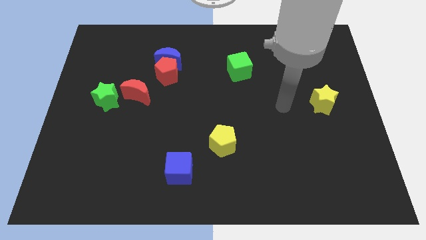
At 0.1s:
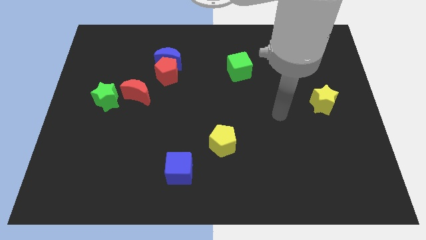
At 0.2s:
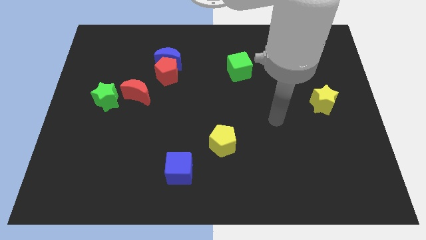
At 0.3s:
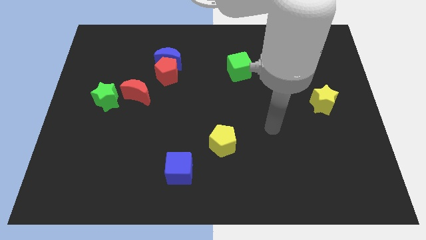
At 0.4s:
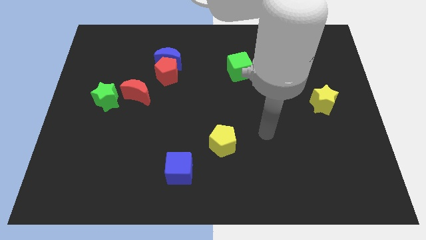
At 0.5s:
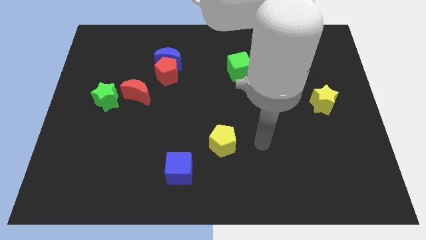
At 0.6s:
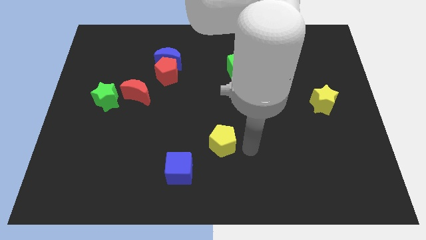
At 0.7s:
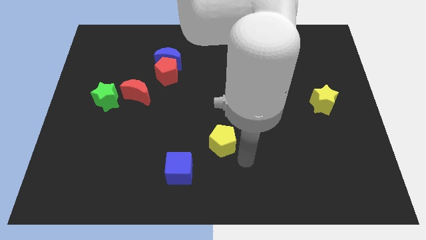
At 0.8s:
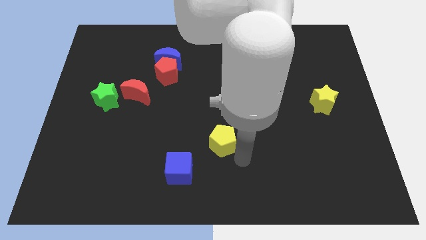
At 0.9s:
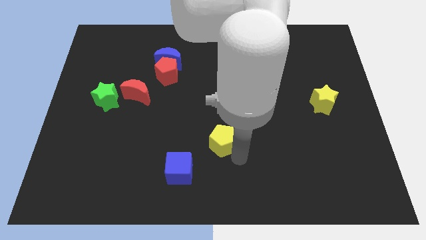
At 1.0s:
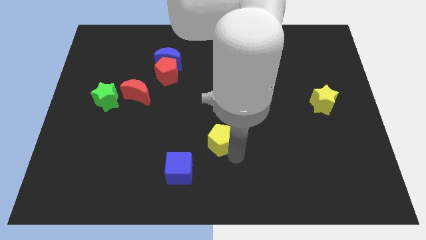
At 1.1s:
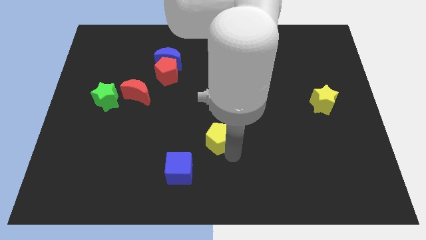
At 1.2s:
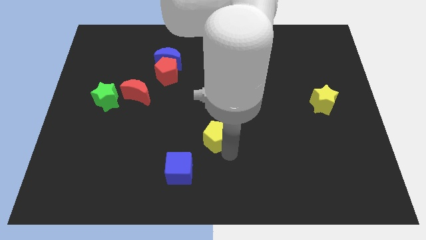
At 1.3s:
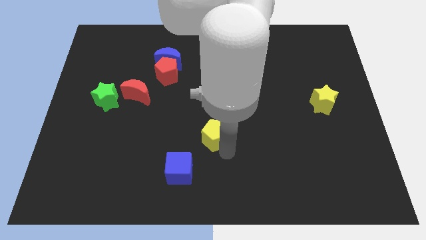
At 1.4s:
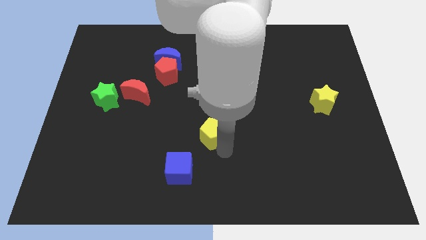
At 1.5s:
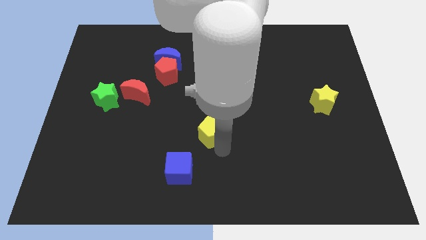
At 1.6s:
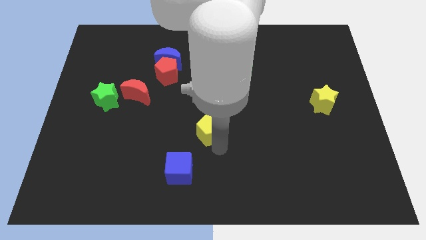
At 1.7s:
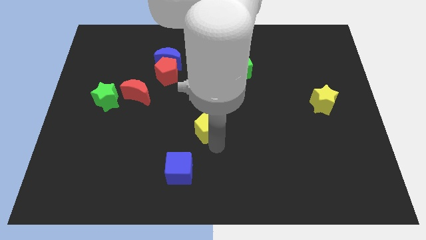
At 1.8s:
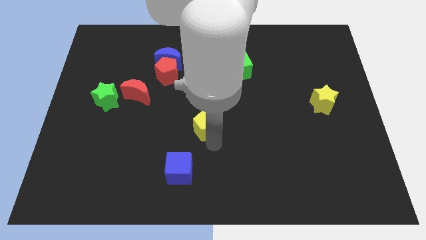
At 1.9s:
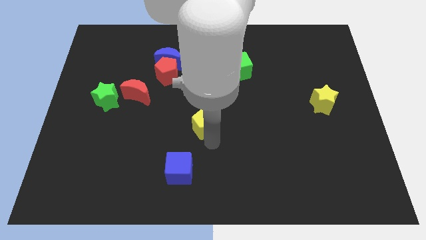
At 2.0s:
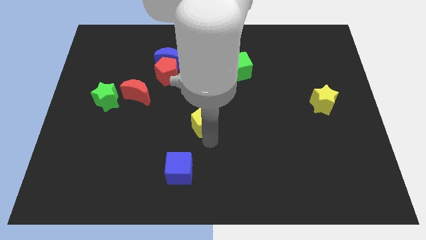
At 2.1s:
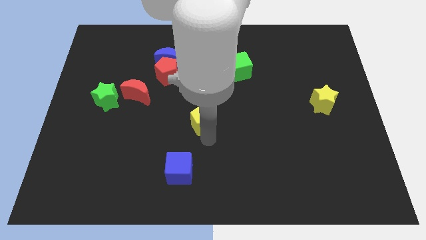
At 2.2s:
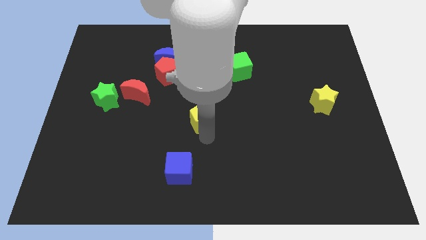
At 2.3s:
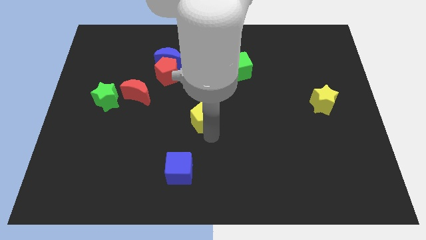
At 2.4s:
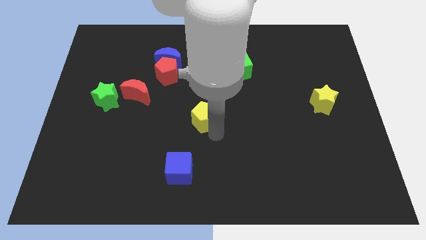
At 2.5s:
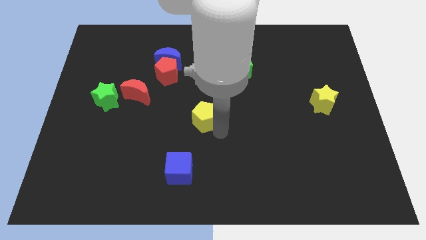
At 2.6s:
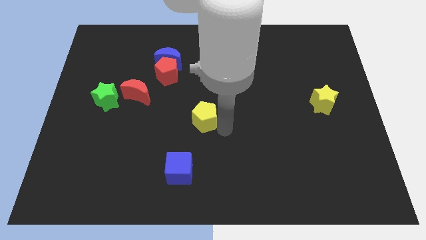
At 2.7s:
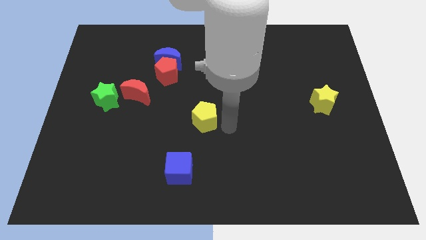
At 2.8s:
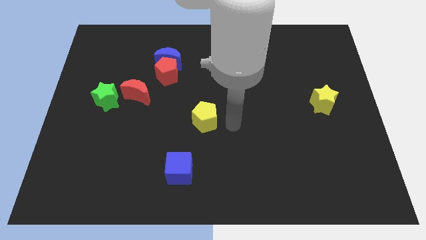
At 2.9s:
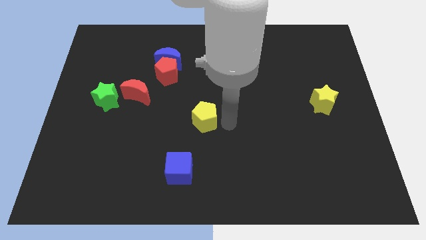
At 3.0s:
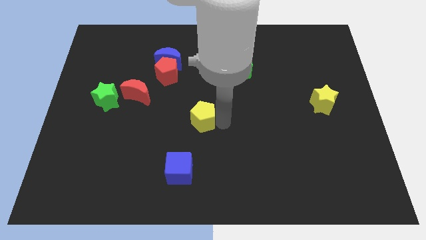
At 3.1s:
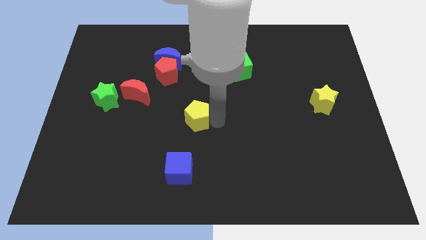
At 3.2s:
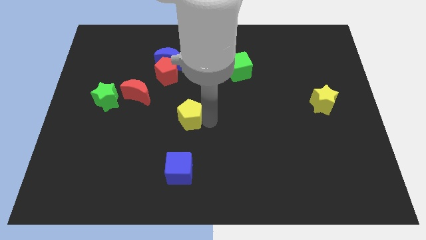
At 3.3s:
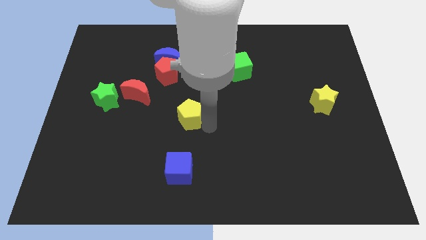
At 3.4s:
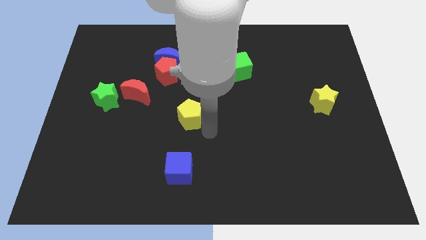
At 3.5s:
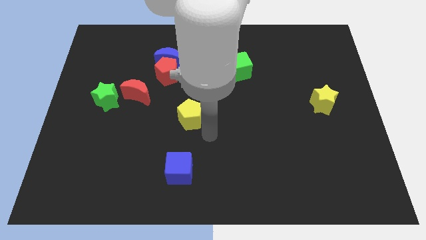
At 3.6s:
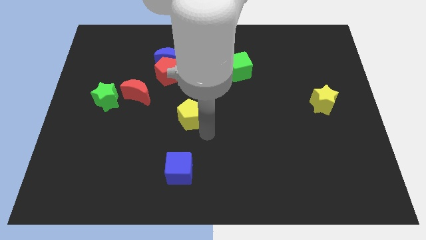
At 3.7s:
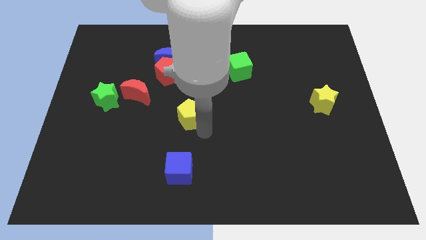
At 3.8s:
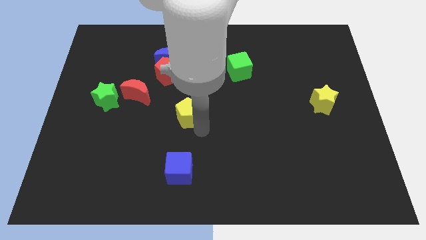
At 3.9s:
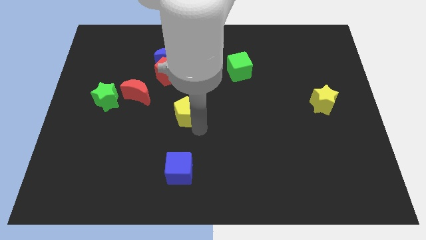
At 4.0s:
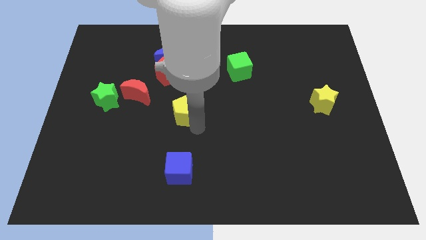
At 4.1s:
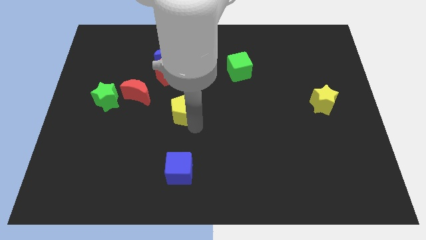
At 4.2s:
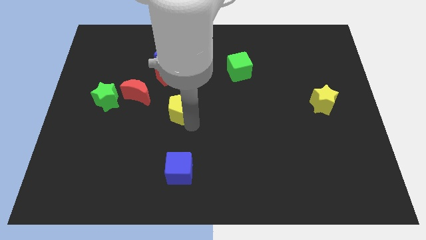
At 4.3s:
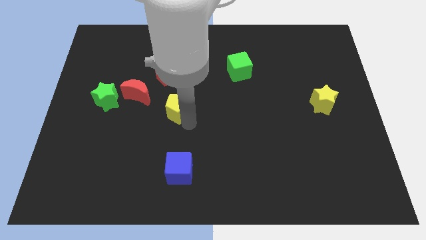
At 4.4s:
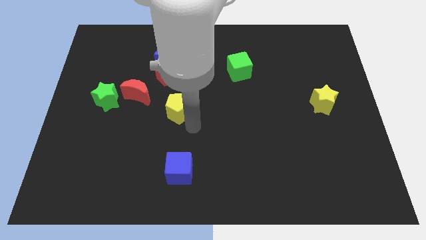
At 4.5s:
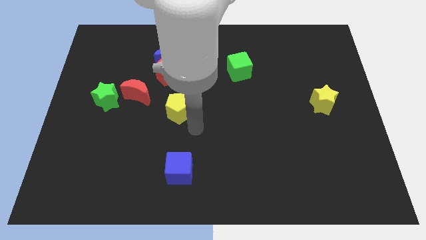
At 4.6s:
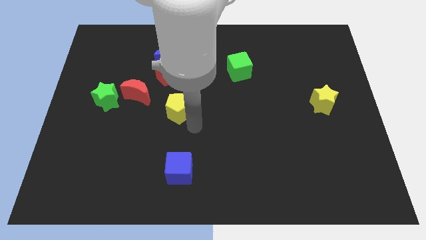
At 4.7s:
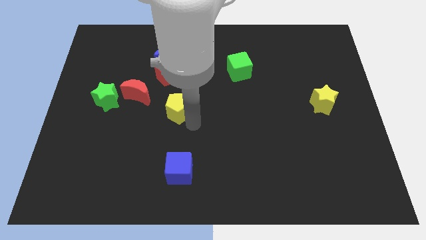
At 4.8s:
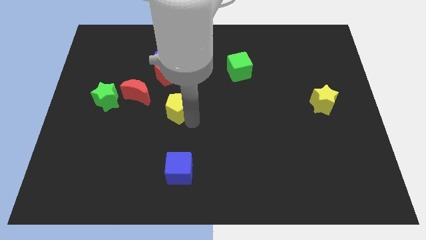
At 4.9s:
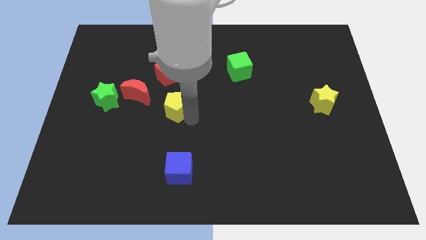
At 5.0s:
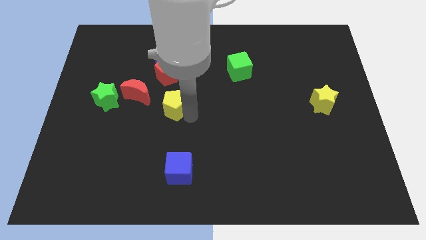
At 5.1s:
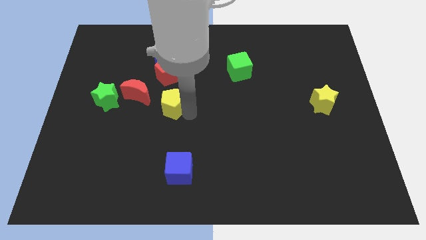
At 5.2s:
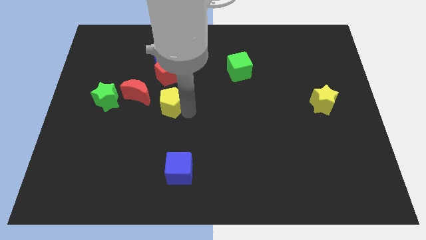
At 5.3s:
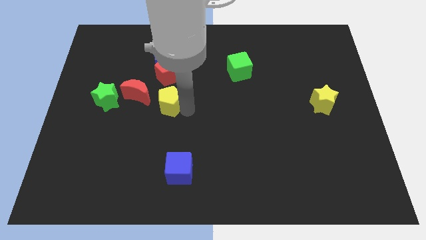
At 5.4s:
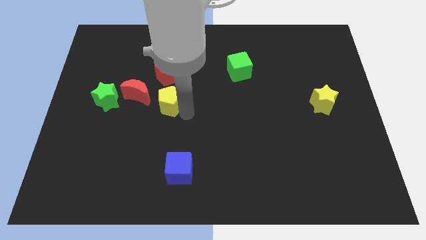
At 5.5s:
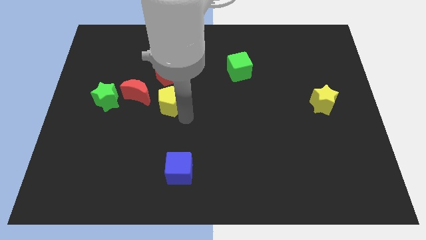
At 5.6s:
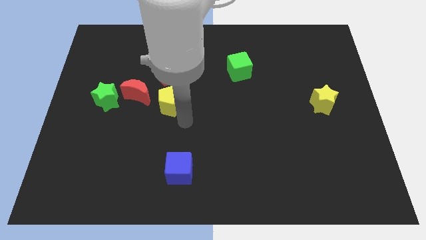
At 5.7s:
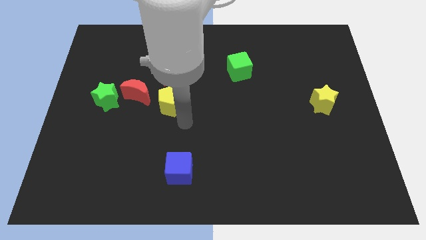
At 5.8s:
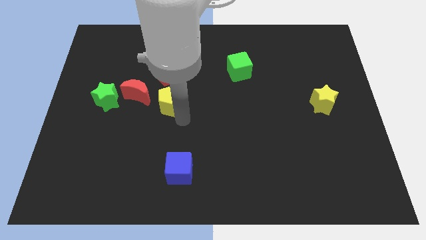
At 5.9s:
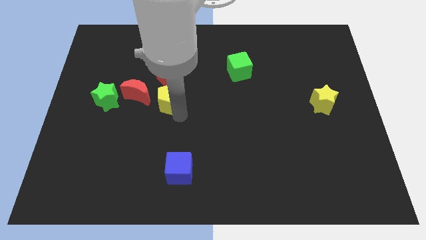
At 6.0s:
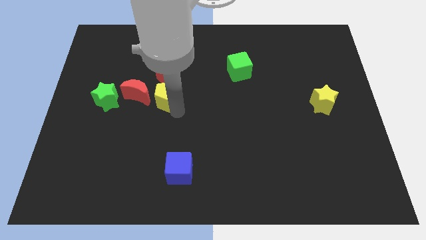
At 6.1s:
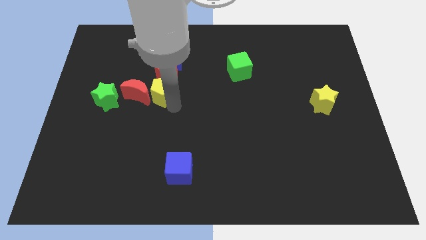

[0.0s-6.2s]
move the yellow pentagon upwards and left

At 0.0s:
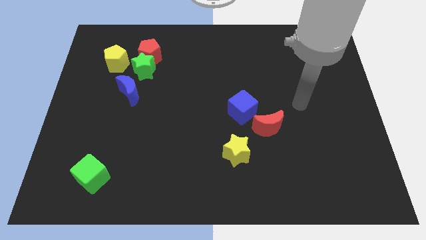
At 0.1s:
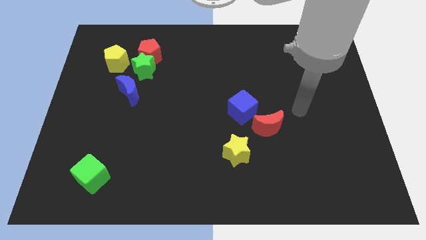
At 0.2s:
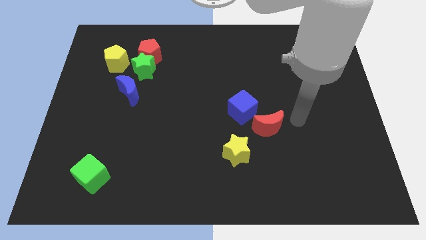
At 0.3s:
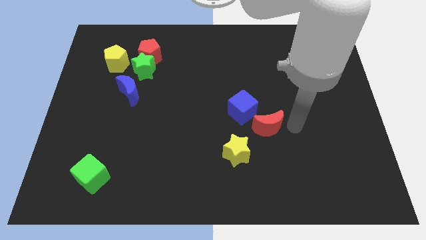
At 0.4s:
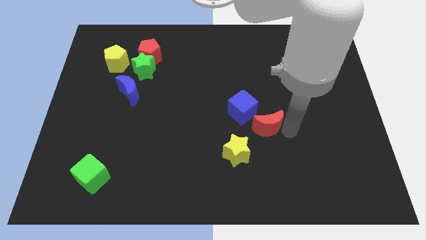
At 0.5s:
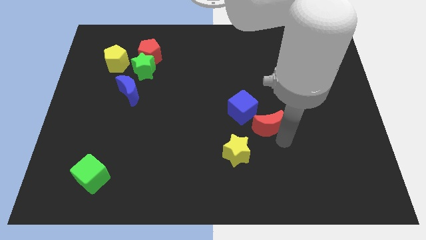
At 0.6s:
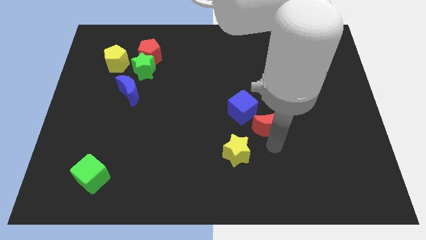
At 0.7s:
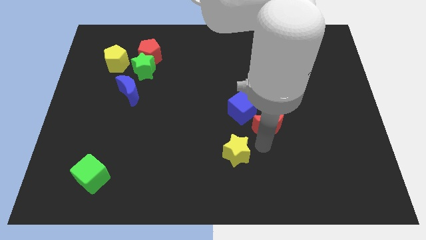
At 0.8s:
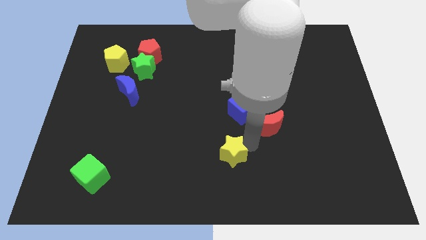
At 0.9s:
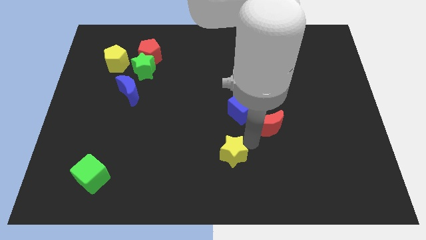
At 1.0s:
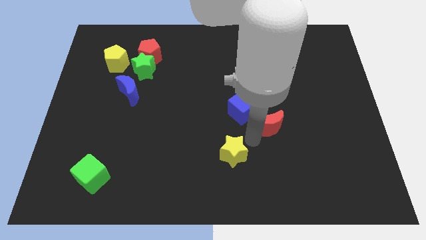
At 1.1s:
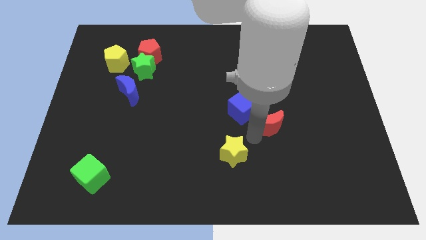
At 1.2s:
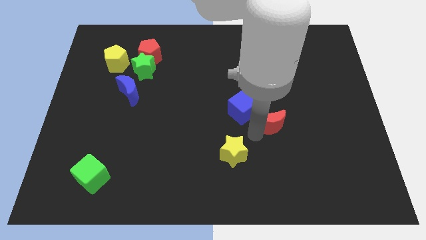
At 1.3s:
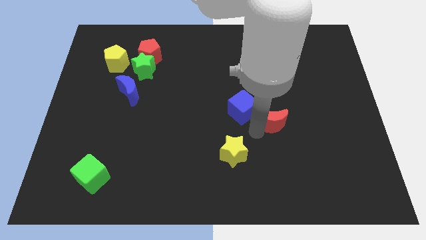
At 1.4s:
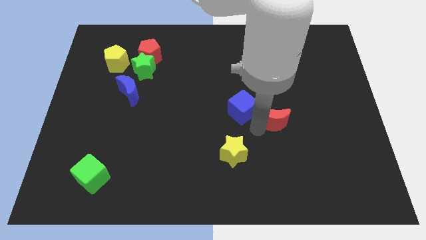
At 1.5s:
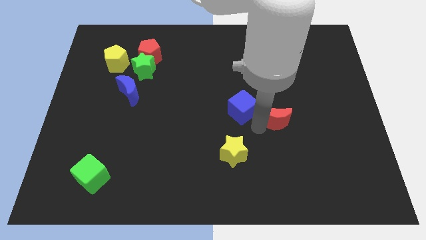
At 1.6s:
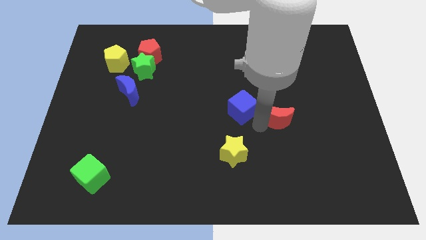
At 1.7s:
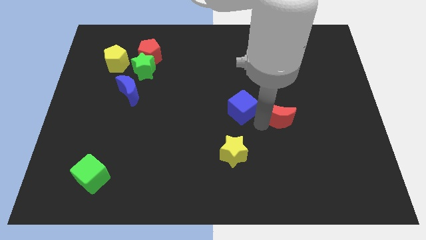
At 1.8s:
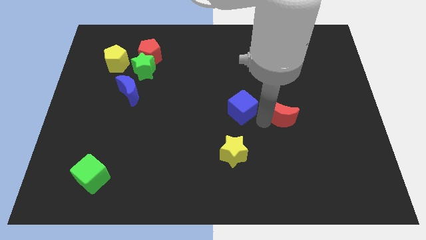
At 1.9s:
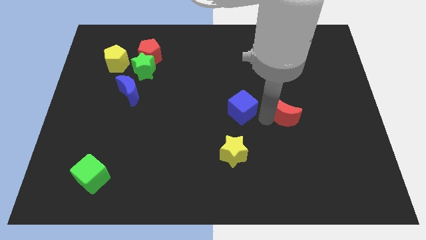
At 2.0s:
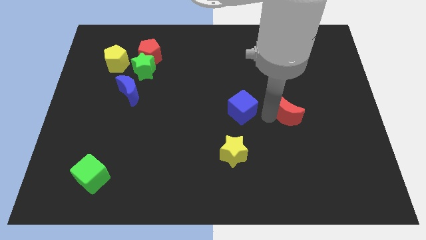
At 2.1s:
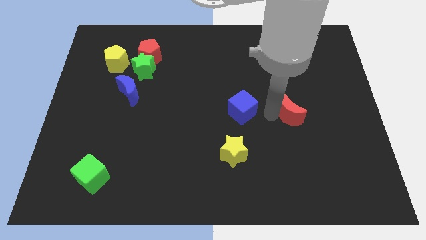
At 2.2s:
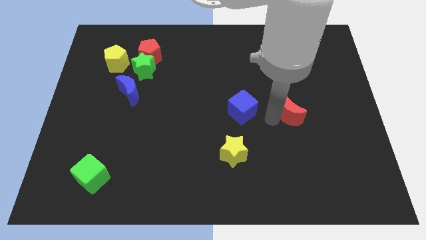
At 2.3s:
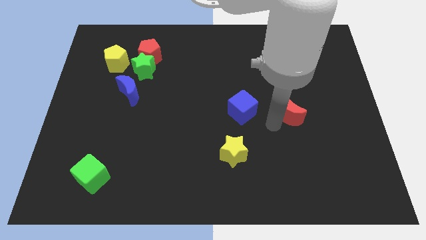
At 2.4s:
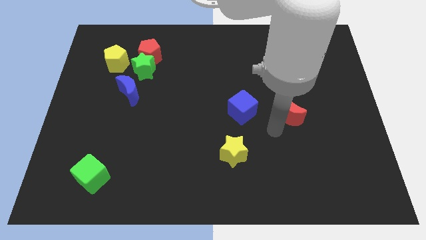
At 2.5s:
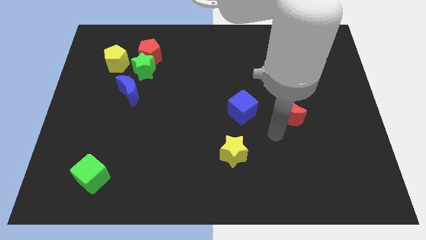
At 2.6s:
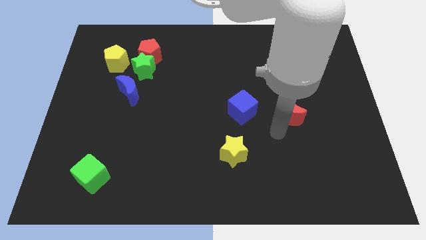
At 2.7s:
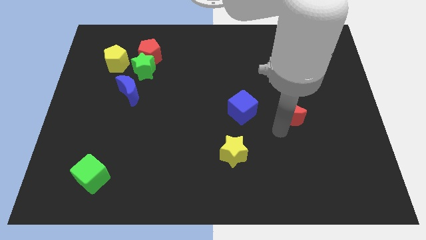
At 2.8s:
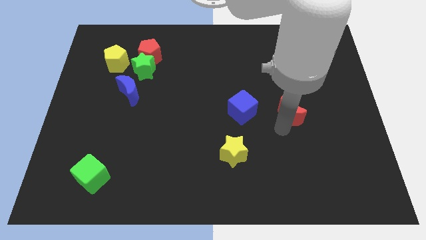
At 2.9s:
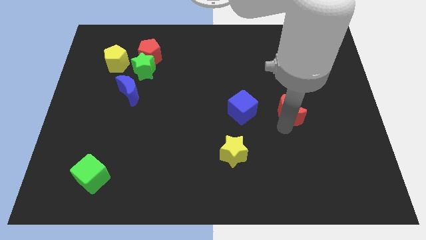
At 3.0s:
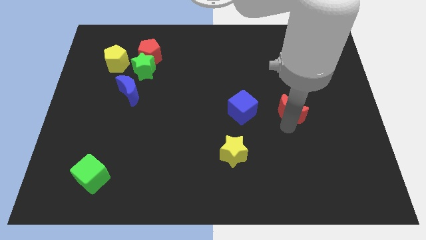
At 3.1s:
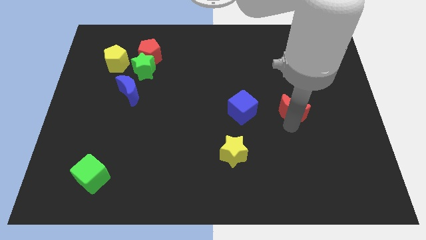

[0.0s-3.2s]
slightly move the red moon upwards and right
